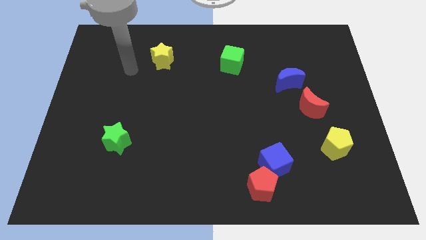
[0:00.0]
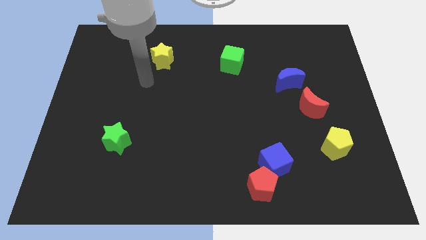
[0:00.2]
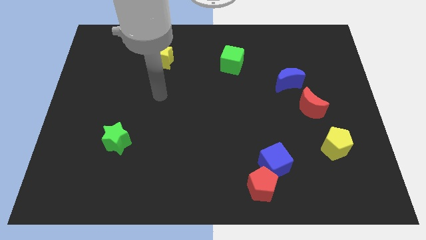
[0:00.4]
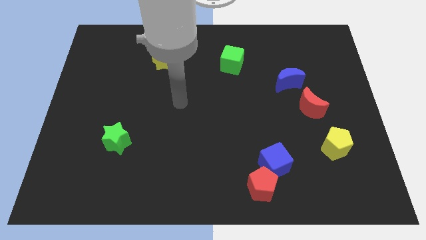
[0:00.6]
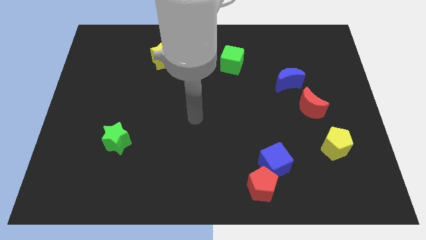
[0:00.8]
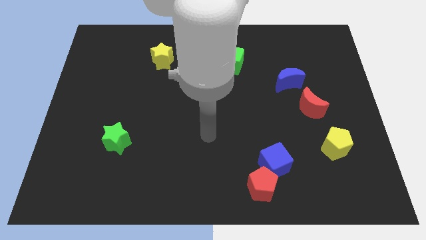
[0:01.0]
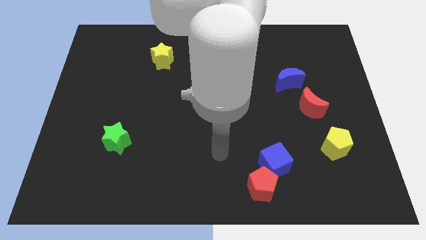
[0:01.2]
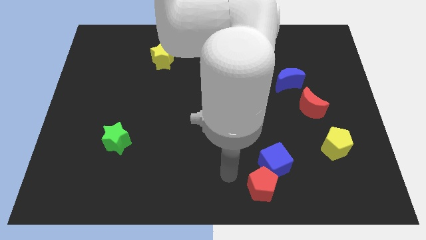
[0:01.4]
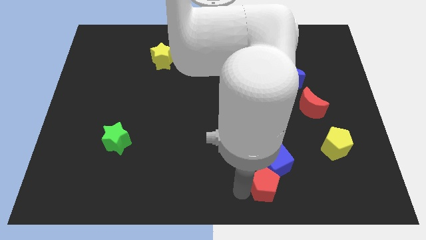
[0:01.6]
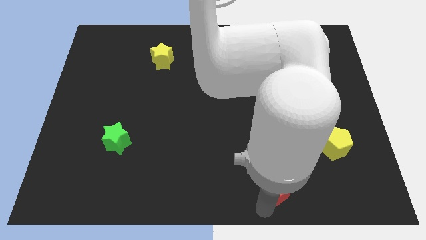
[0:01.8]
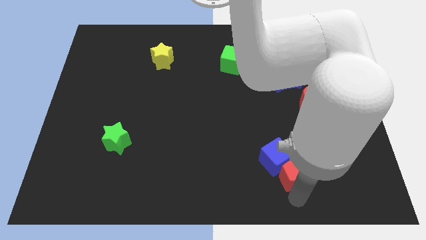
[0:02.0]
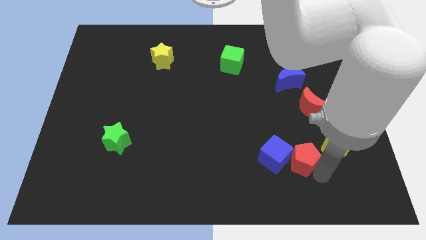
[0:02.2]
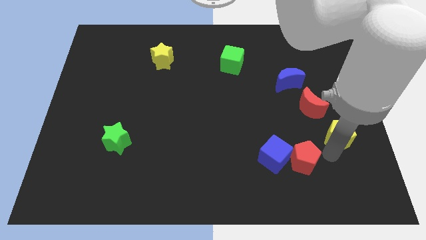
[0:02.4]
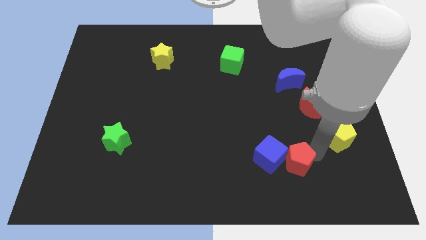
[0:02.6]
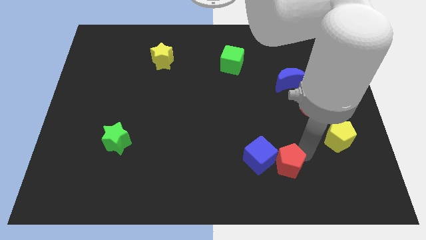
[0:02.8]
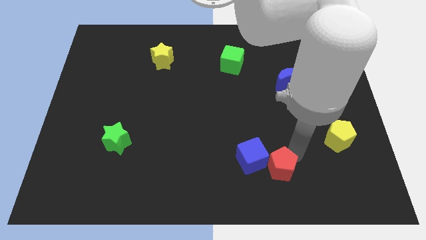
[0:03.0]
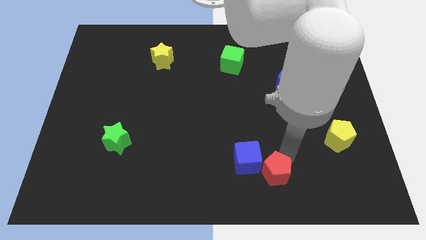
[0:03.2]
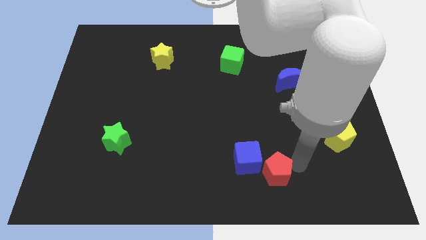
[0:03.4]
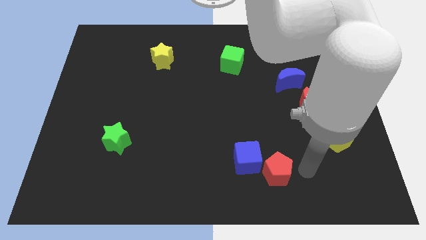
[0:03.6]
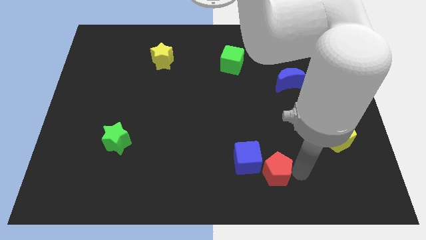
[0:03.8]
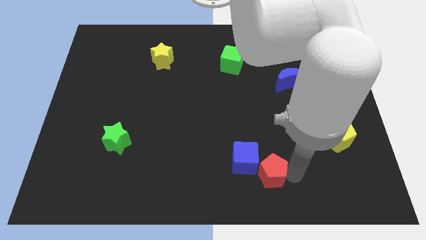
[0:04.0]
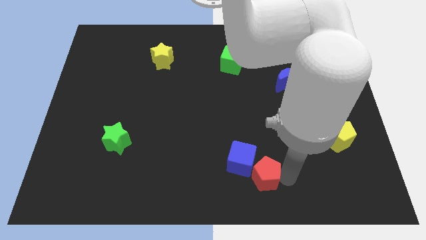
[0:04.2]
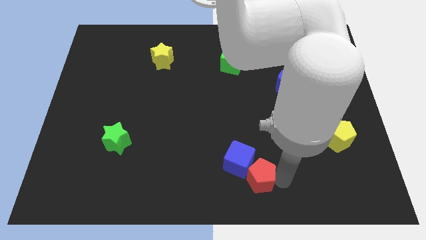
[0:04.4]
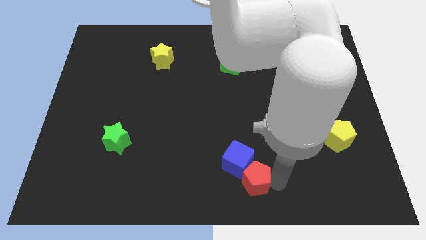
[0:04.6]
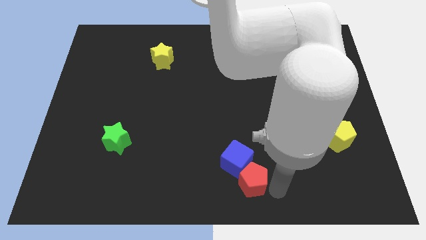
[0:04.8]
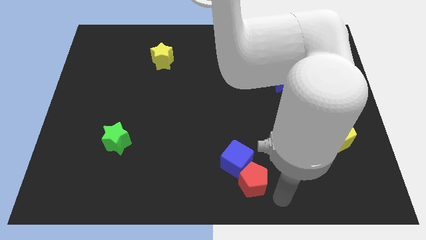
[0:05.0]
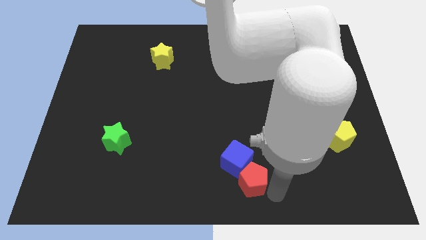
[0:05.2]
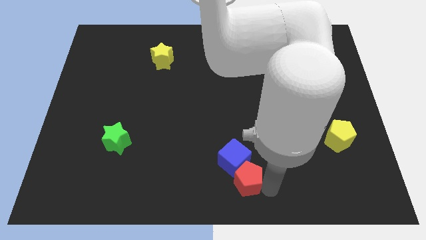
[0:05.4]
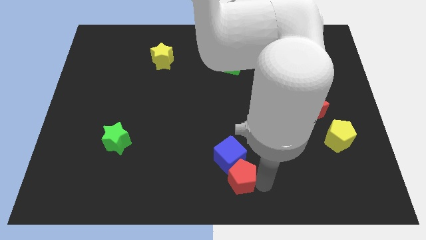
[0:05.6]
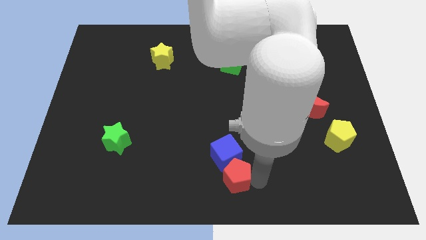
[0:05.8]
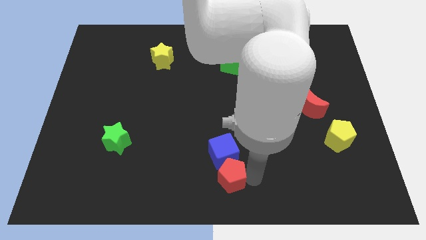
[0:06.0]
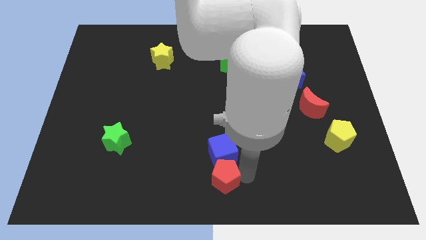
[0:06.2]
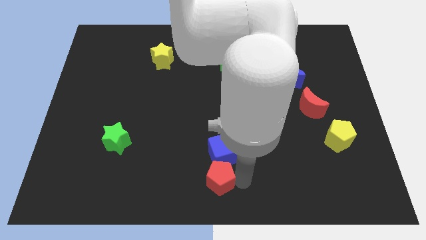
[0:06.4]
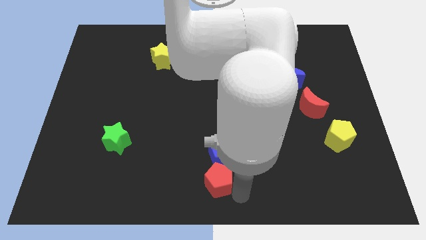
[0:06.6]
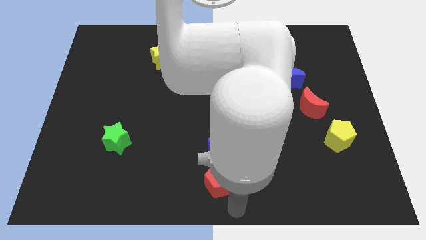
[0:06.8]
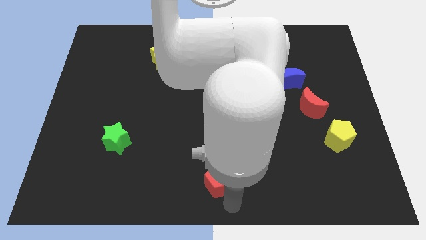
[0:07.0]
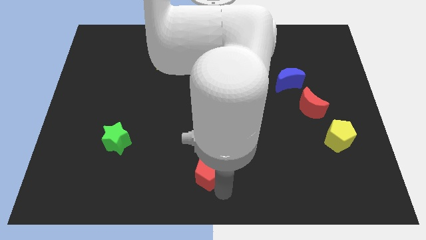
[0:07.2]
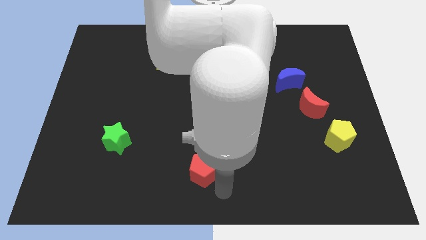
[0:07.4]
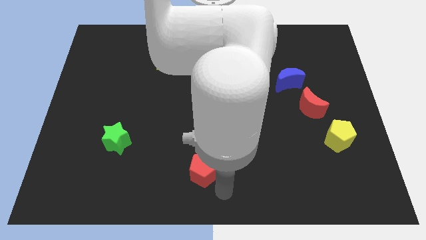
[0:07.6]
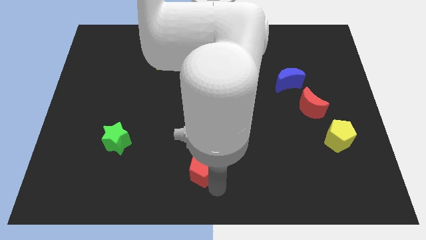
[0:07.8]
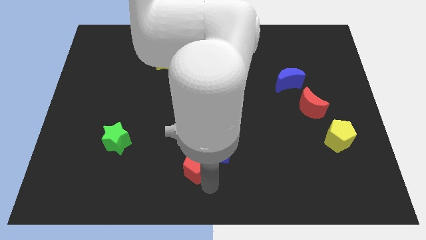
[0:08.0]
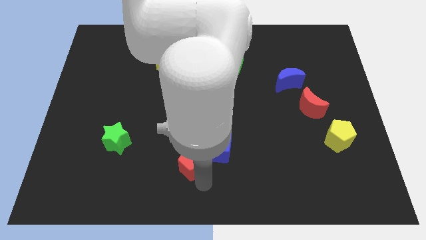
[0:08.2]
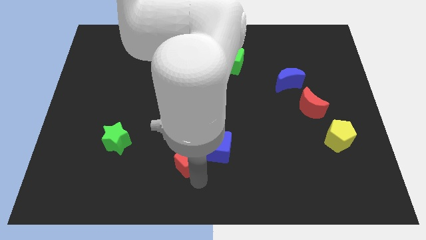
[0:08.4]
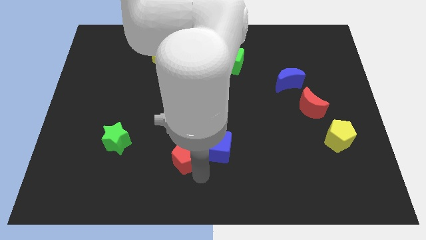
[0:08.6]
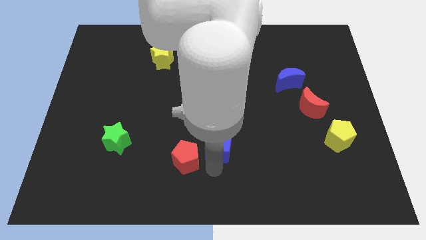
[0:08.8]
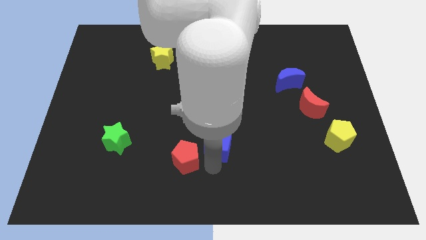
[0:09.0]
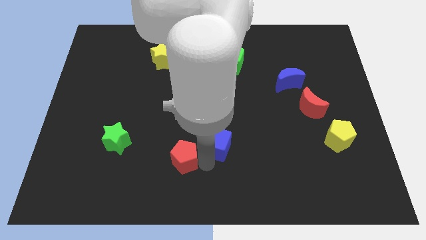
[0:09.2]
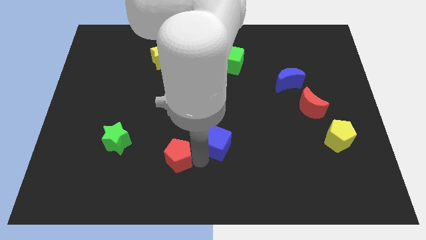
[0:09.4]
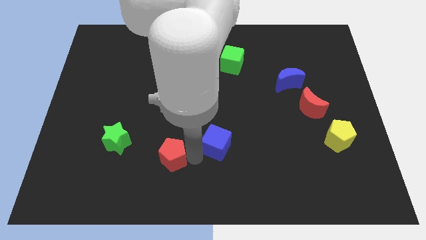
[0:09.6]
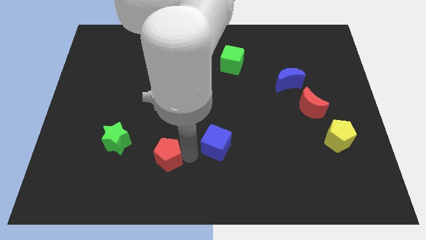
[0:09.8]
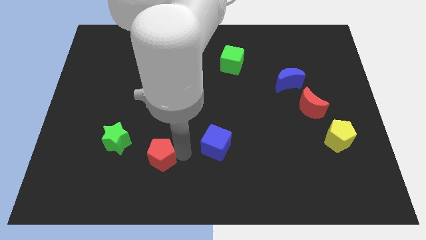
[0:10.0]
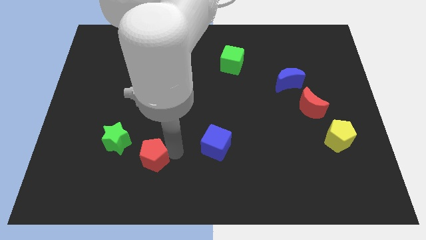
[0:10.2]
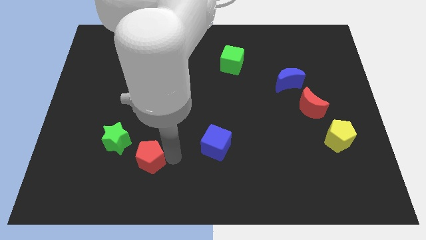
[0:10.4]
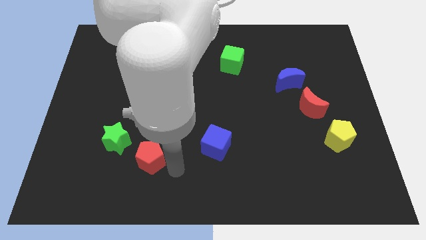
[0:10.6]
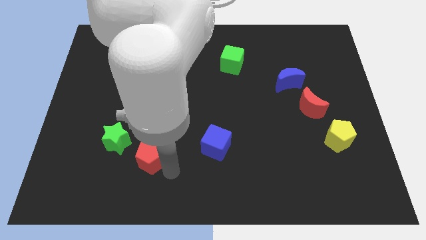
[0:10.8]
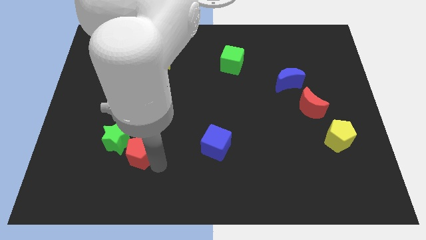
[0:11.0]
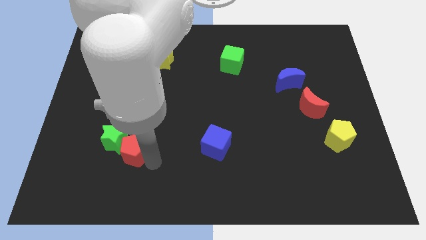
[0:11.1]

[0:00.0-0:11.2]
put the red pentagon to the green star

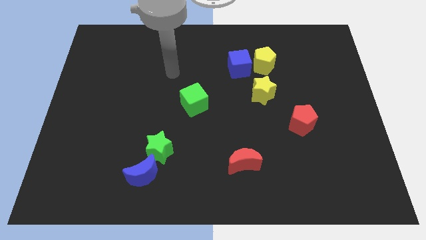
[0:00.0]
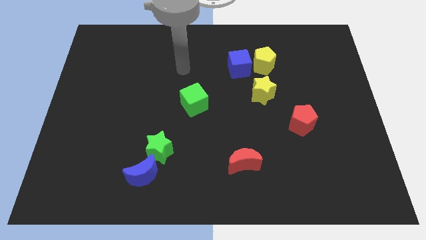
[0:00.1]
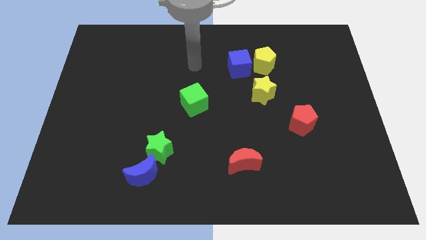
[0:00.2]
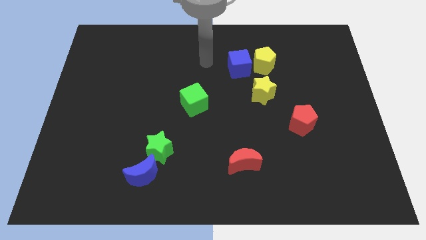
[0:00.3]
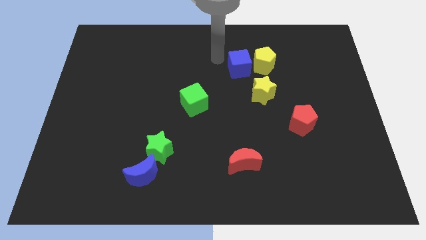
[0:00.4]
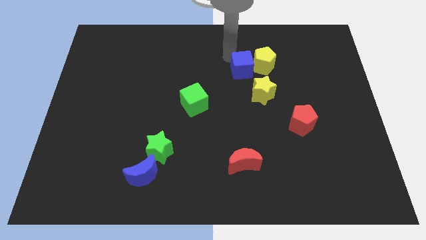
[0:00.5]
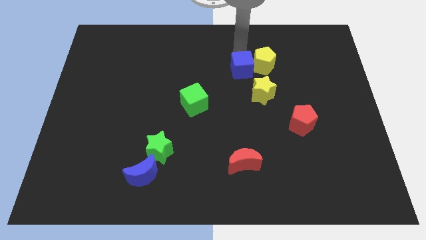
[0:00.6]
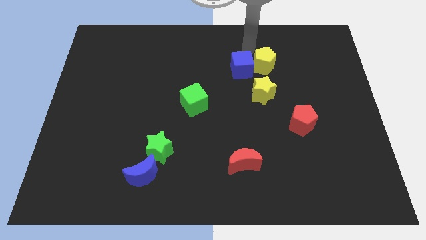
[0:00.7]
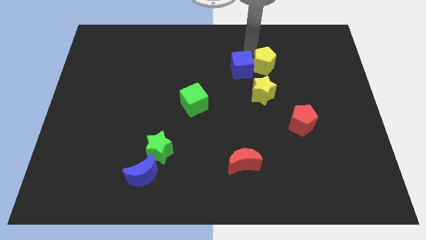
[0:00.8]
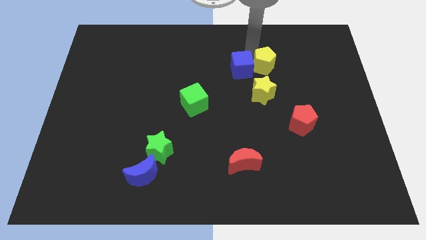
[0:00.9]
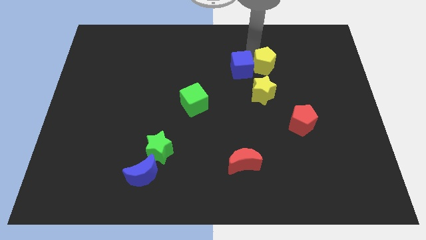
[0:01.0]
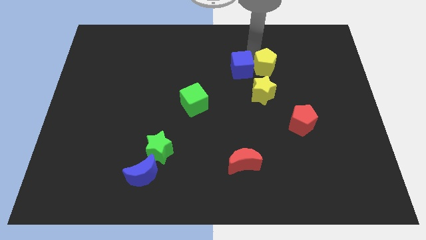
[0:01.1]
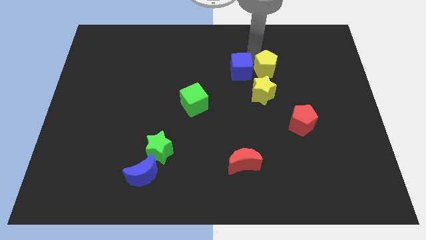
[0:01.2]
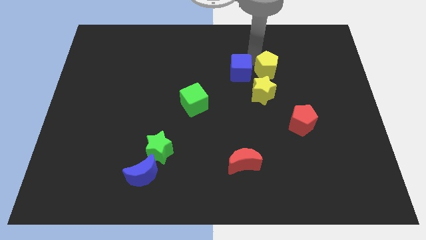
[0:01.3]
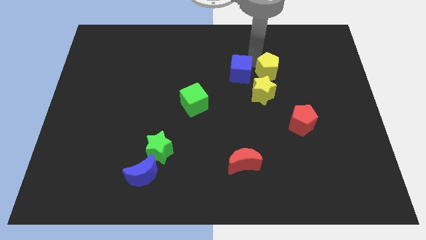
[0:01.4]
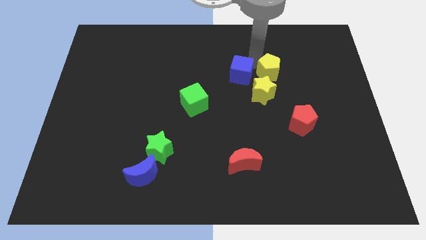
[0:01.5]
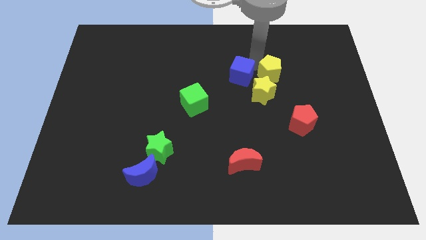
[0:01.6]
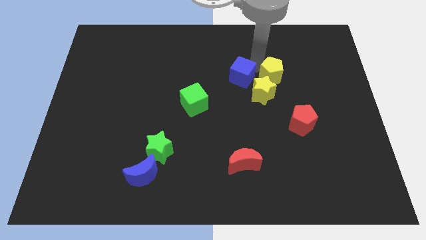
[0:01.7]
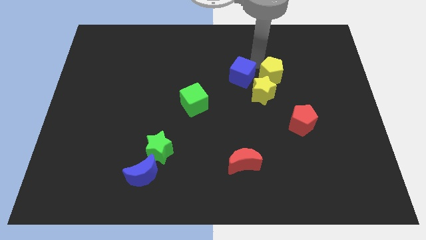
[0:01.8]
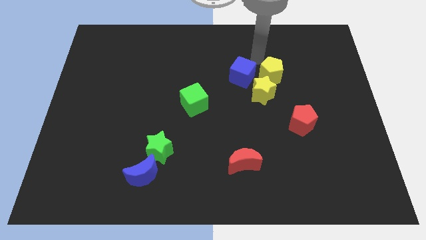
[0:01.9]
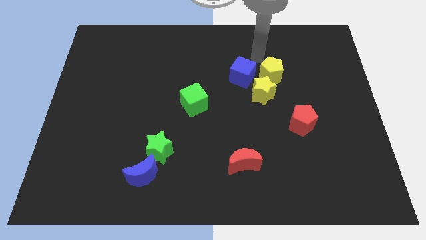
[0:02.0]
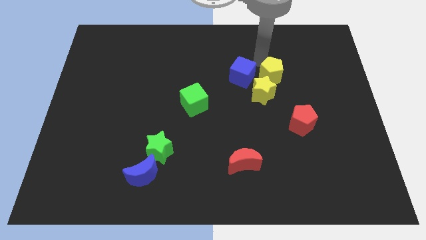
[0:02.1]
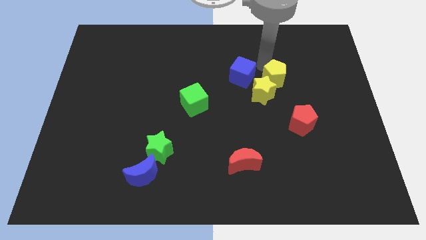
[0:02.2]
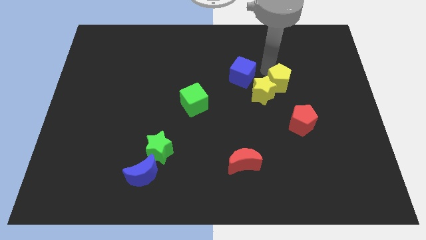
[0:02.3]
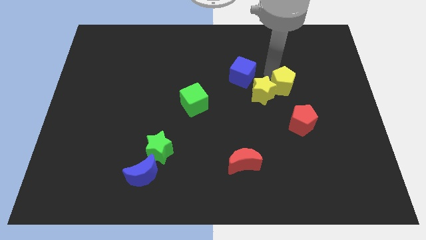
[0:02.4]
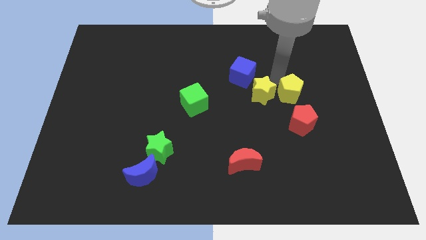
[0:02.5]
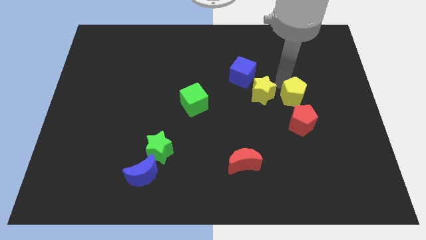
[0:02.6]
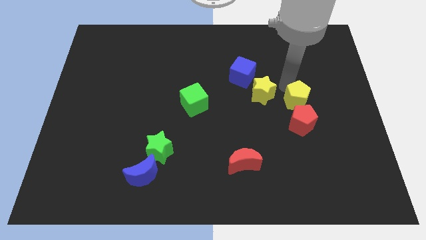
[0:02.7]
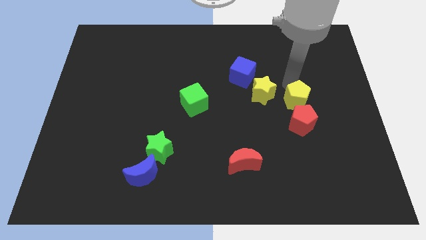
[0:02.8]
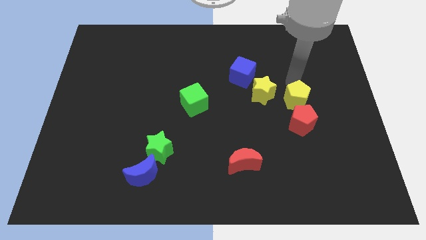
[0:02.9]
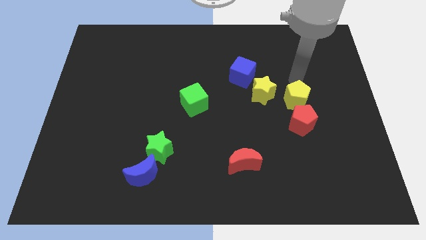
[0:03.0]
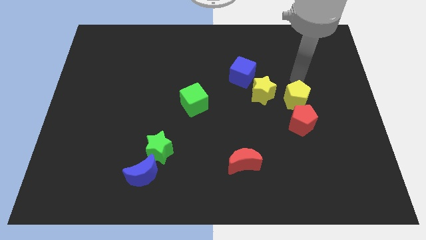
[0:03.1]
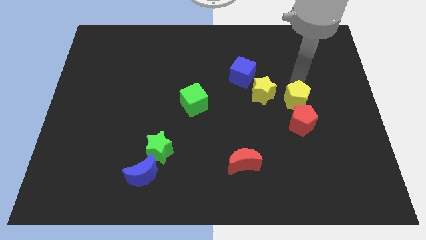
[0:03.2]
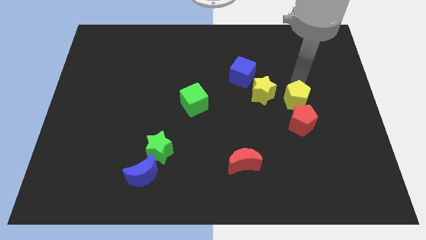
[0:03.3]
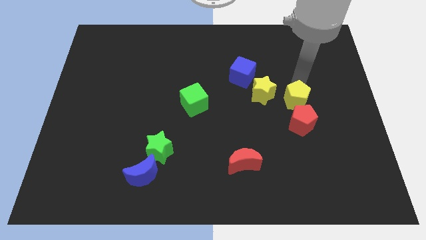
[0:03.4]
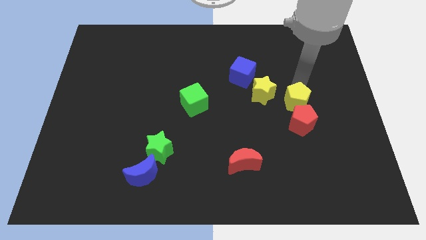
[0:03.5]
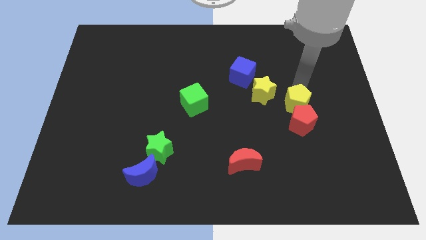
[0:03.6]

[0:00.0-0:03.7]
put the yellow pentagon towards the red pentagon
